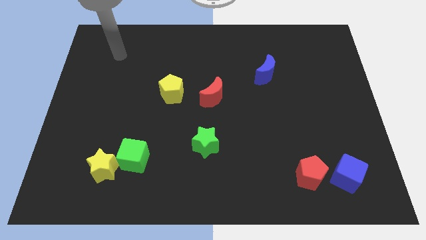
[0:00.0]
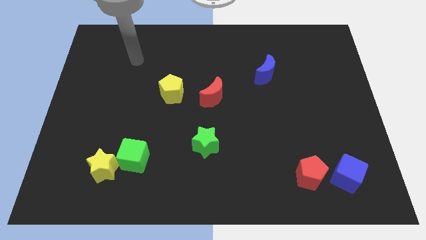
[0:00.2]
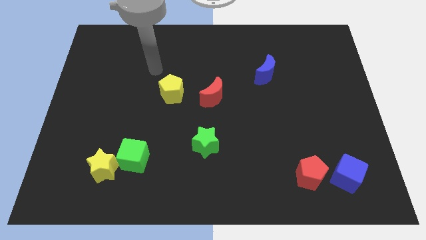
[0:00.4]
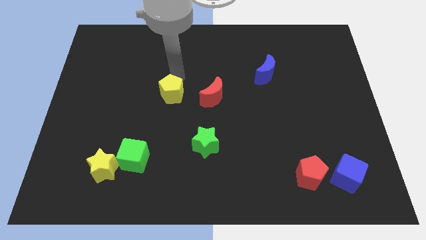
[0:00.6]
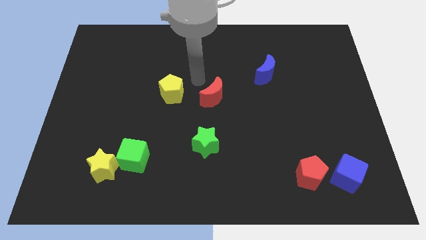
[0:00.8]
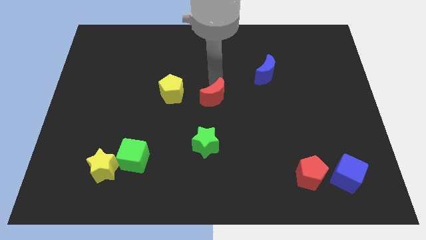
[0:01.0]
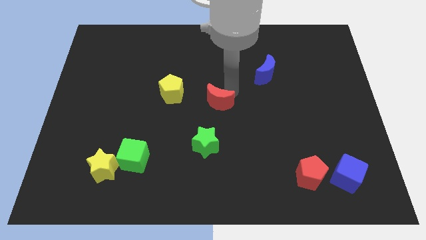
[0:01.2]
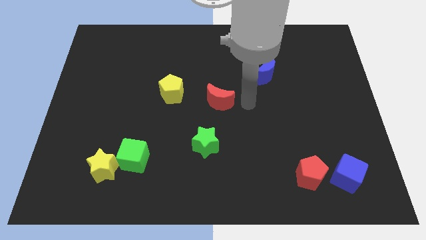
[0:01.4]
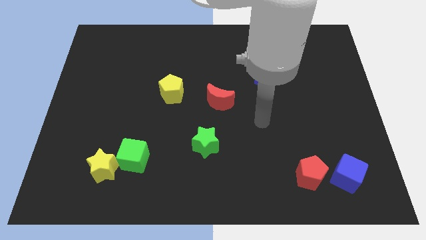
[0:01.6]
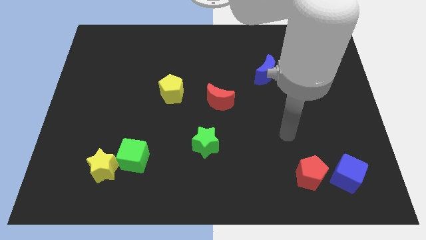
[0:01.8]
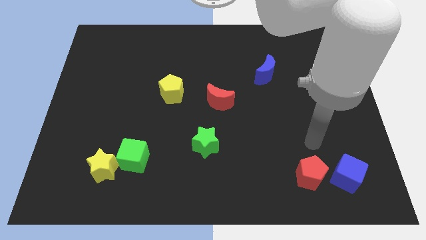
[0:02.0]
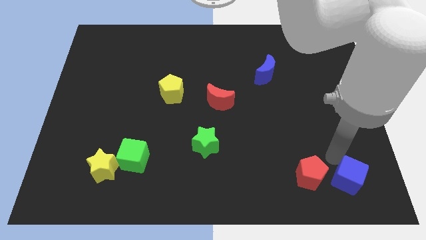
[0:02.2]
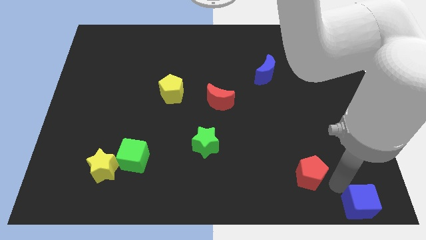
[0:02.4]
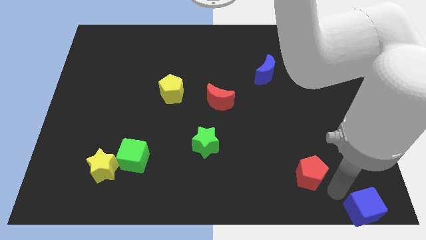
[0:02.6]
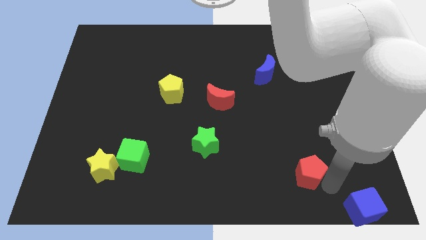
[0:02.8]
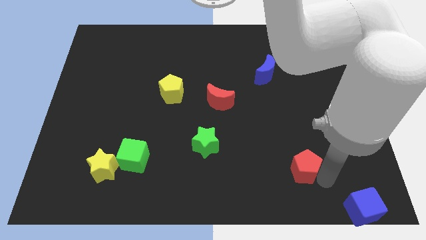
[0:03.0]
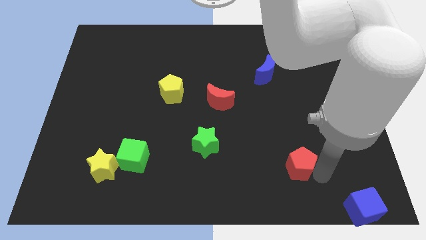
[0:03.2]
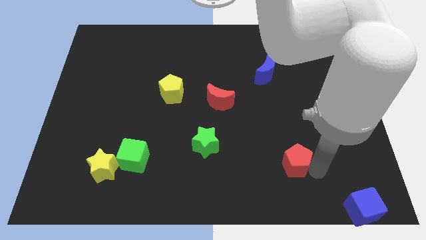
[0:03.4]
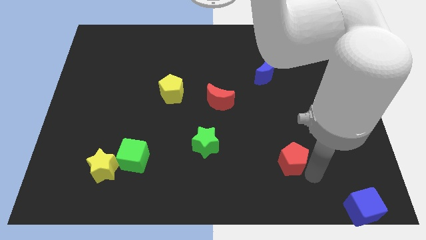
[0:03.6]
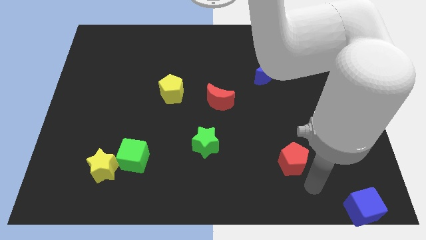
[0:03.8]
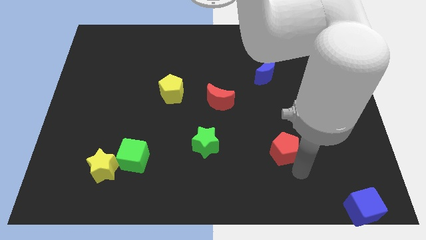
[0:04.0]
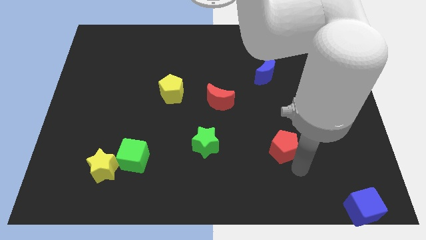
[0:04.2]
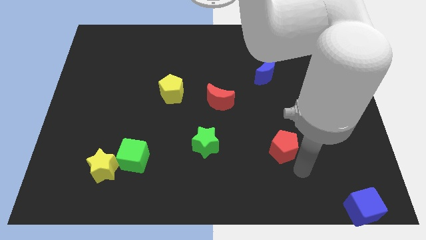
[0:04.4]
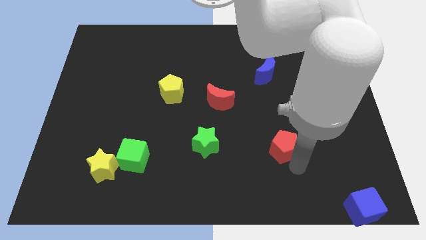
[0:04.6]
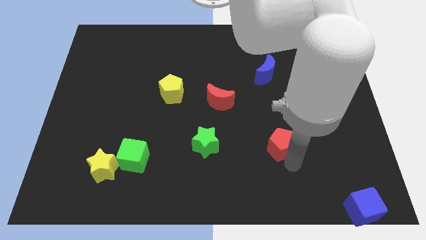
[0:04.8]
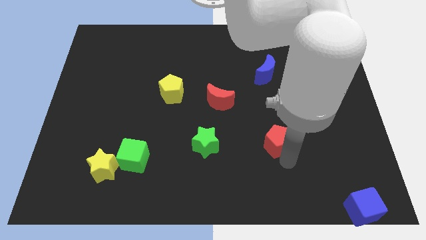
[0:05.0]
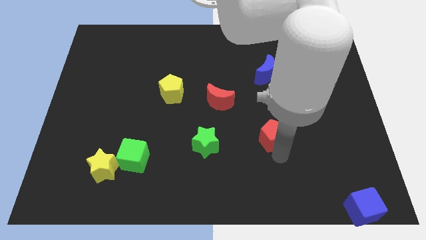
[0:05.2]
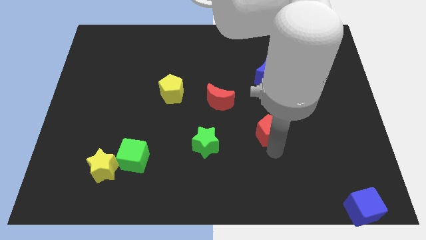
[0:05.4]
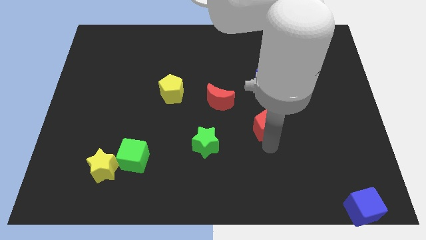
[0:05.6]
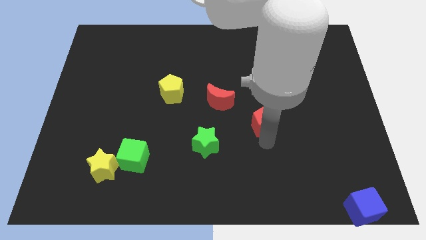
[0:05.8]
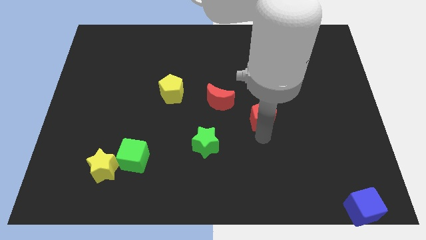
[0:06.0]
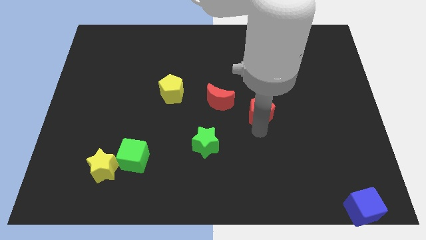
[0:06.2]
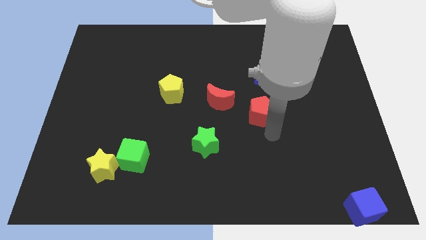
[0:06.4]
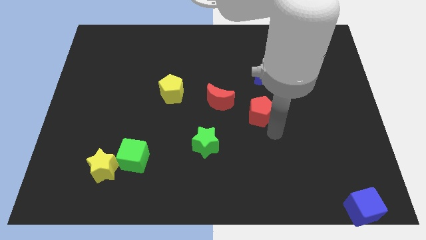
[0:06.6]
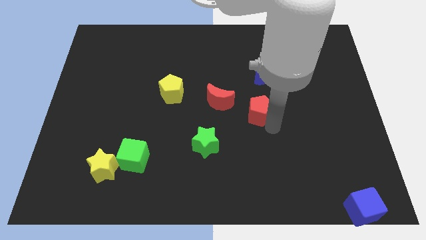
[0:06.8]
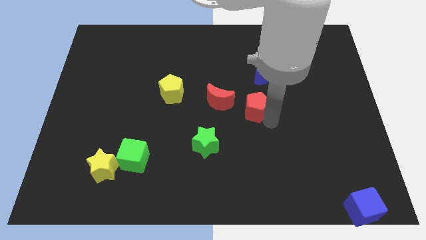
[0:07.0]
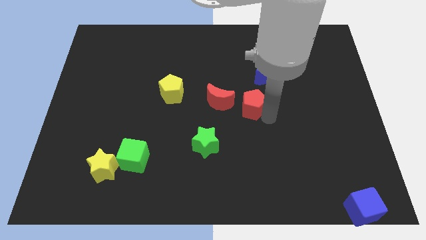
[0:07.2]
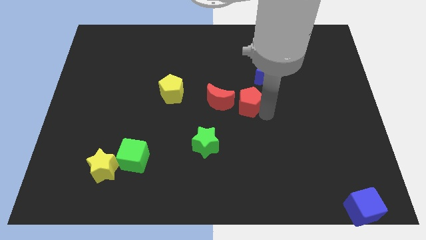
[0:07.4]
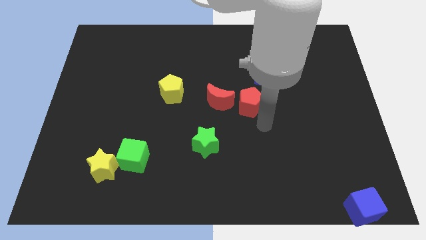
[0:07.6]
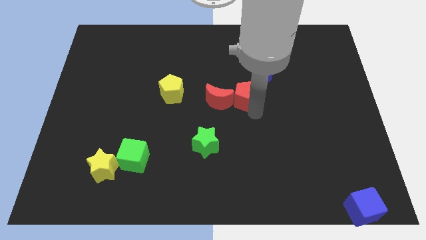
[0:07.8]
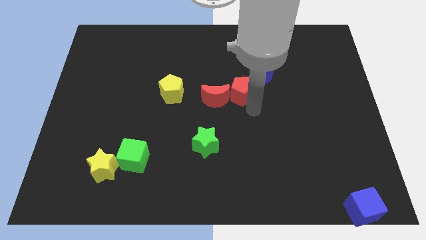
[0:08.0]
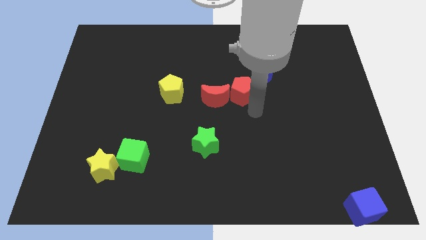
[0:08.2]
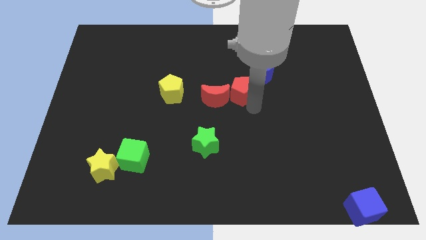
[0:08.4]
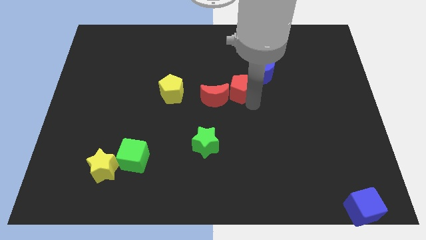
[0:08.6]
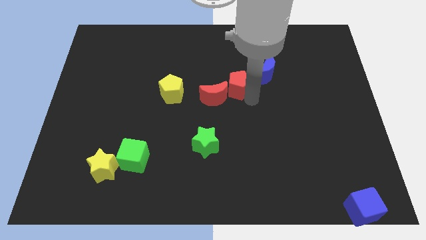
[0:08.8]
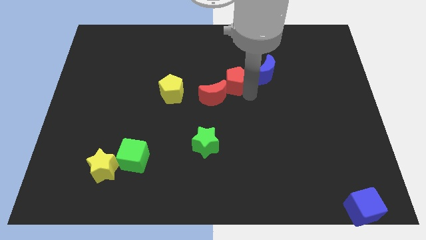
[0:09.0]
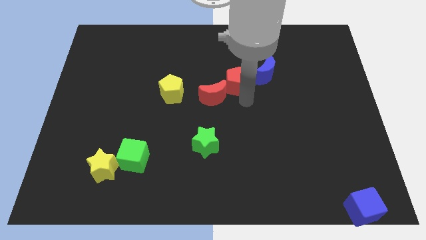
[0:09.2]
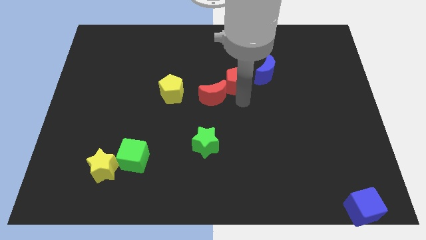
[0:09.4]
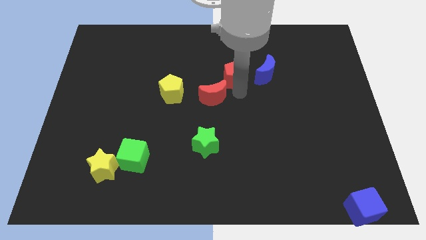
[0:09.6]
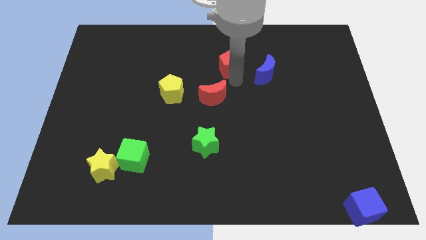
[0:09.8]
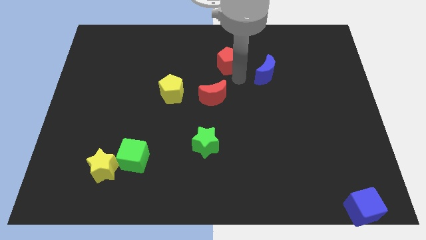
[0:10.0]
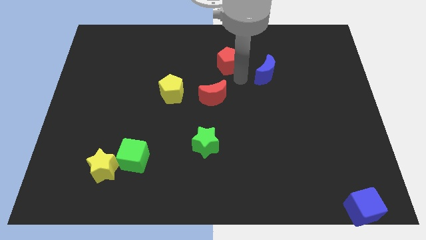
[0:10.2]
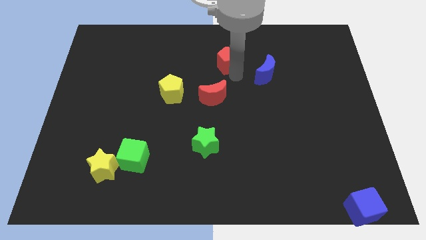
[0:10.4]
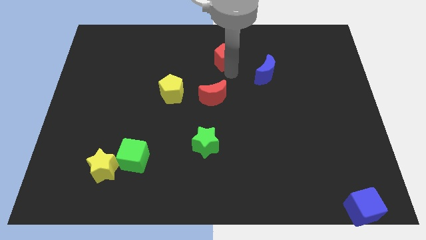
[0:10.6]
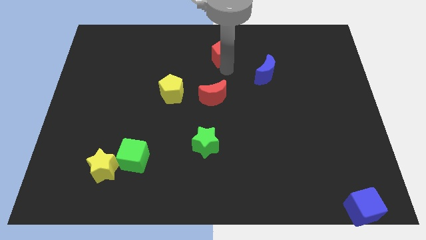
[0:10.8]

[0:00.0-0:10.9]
move the red pentagon to the top

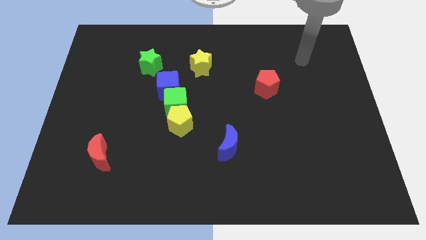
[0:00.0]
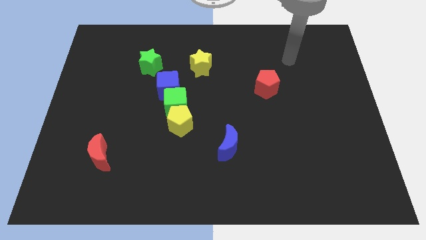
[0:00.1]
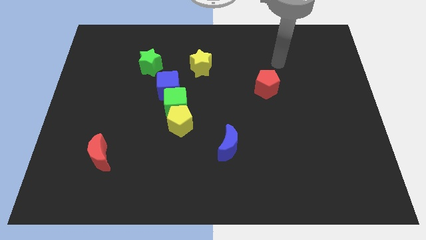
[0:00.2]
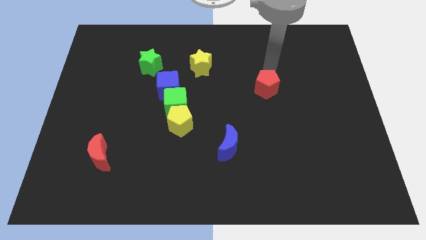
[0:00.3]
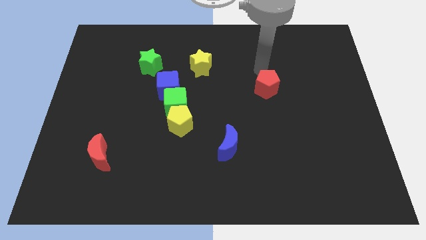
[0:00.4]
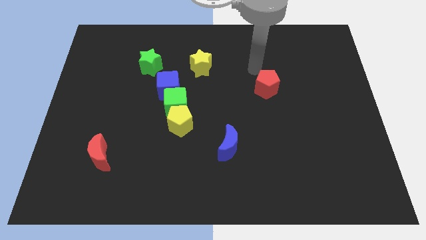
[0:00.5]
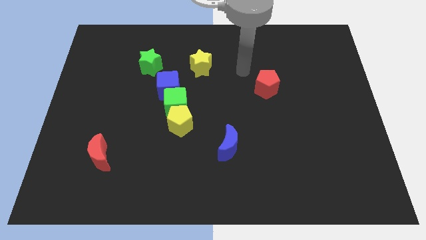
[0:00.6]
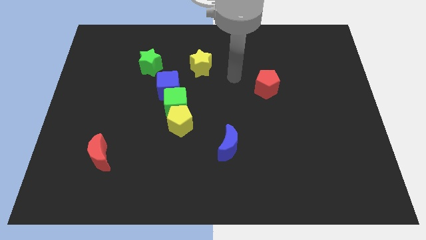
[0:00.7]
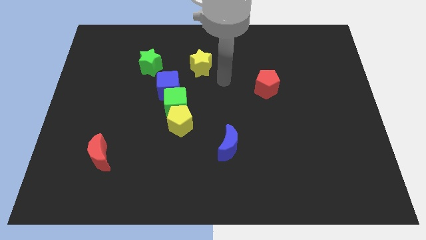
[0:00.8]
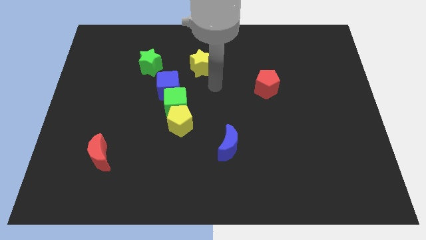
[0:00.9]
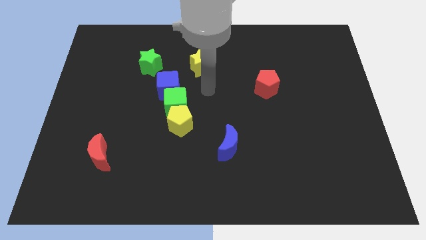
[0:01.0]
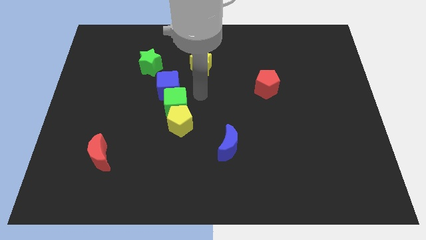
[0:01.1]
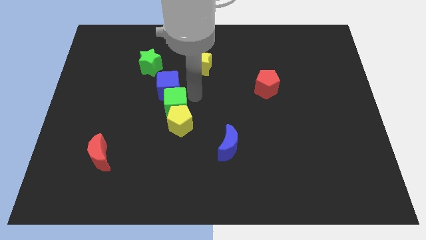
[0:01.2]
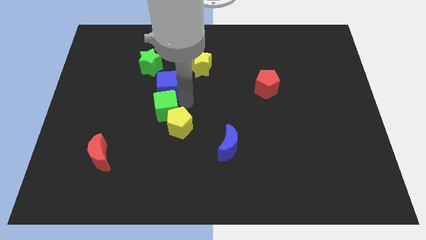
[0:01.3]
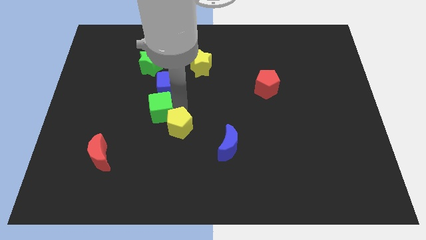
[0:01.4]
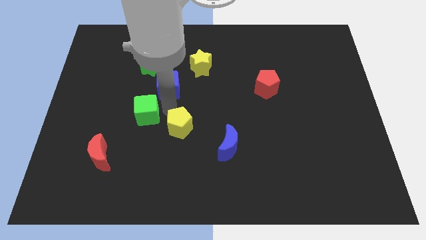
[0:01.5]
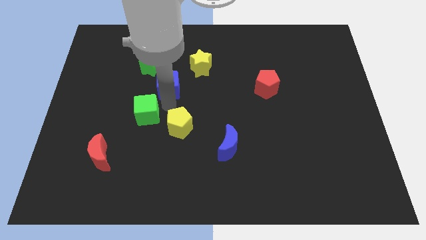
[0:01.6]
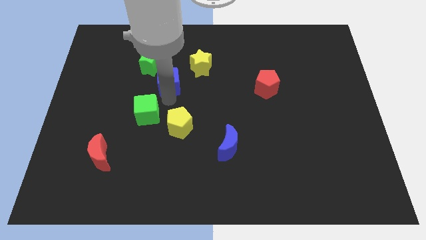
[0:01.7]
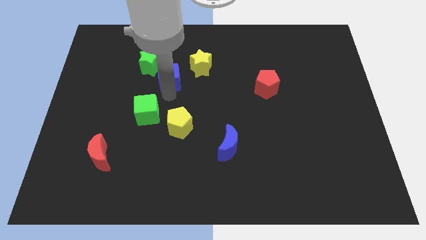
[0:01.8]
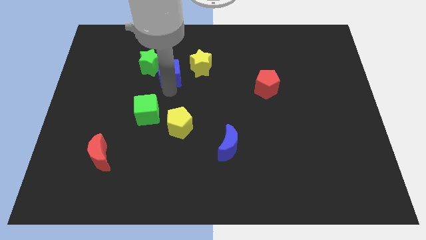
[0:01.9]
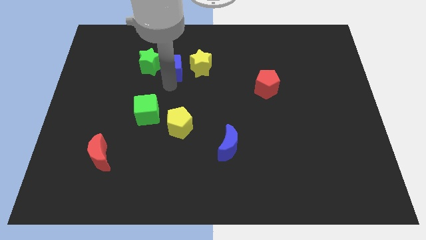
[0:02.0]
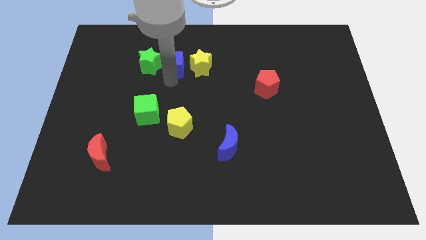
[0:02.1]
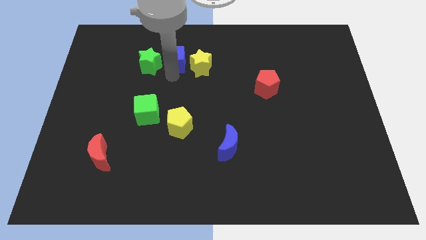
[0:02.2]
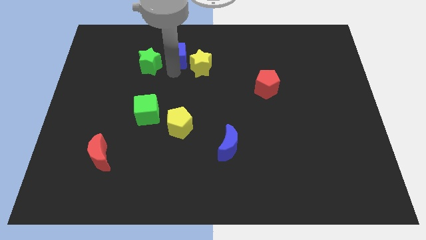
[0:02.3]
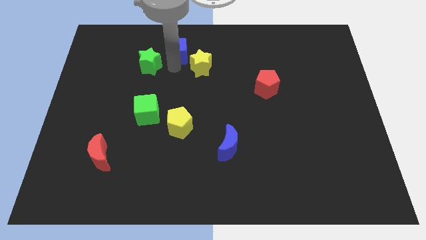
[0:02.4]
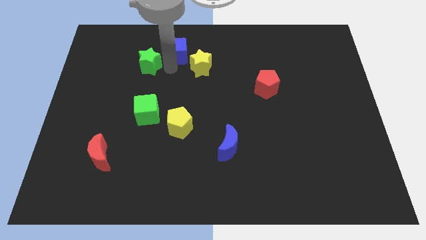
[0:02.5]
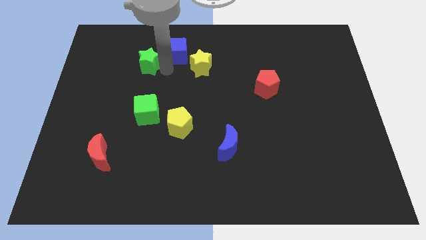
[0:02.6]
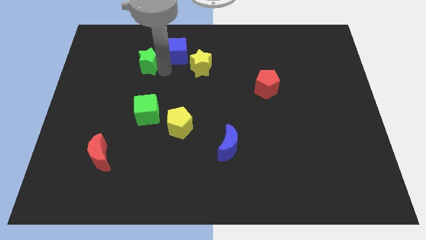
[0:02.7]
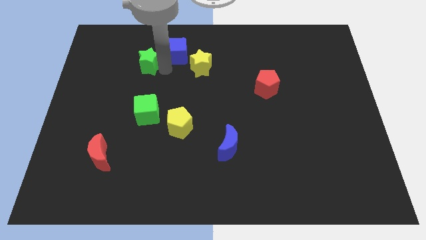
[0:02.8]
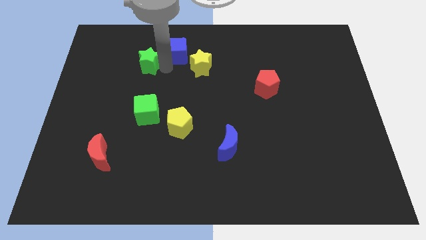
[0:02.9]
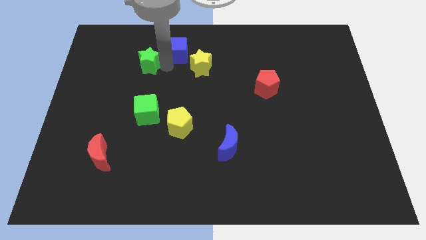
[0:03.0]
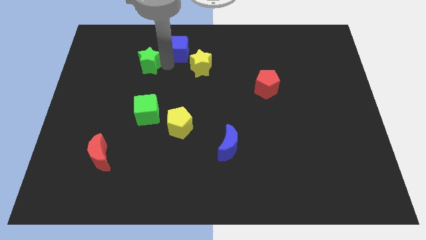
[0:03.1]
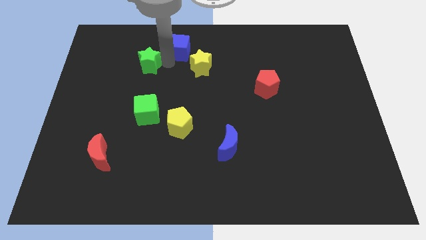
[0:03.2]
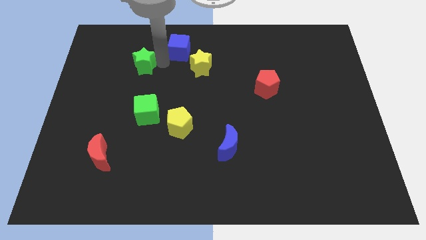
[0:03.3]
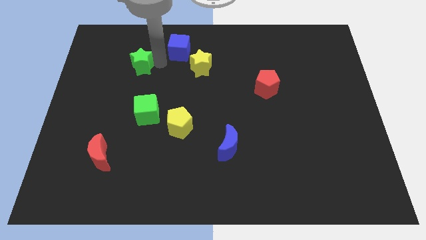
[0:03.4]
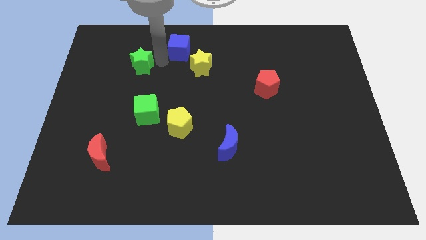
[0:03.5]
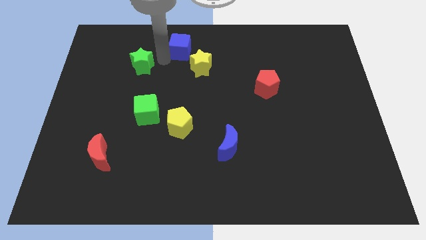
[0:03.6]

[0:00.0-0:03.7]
move the blue cube to the top
